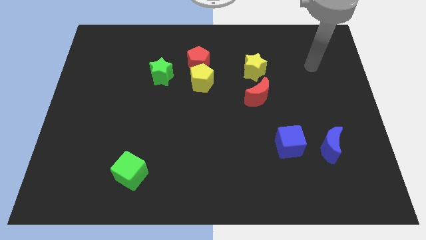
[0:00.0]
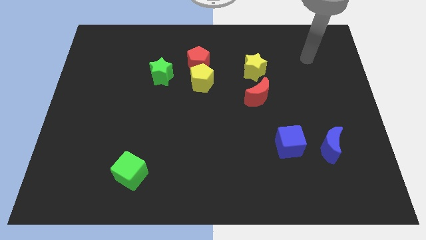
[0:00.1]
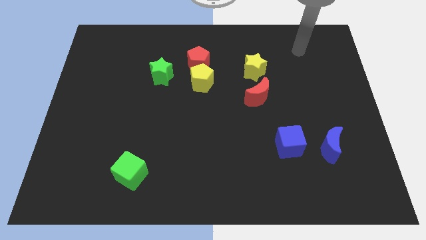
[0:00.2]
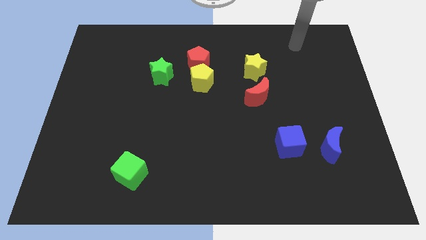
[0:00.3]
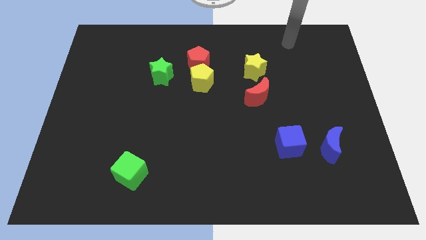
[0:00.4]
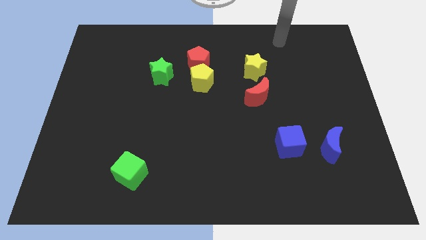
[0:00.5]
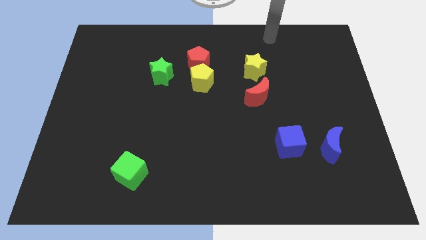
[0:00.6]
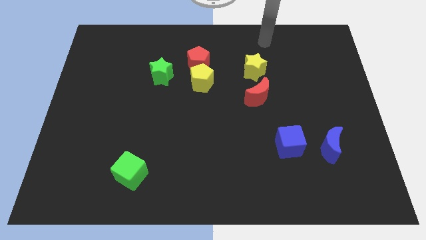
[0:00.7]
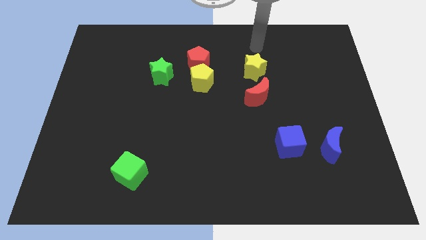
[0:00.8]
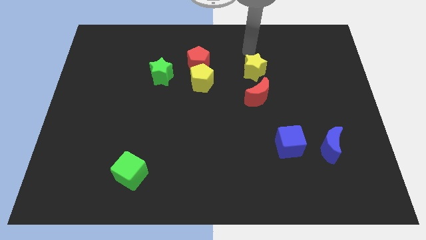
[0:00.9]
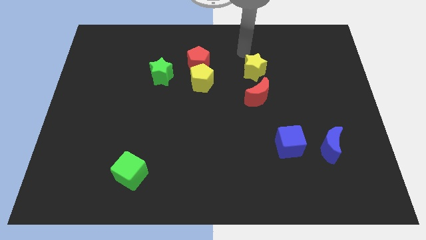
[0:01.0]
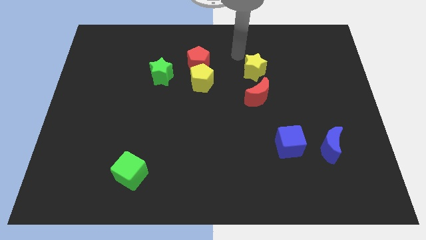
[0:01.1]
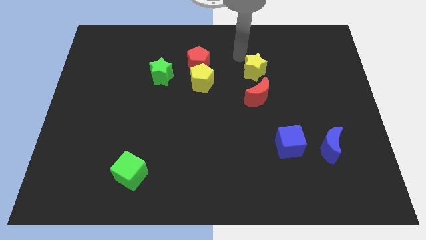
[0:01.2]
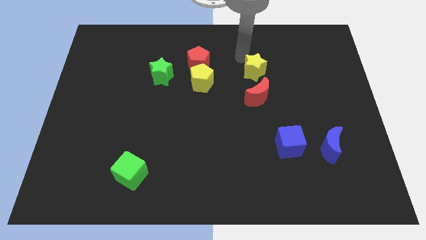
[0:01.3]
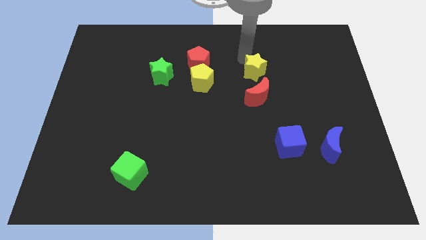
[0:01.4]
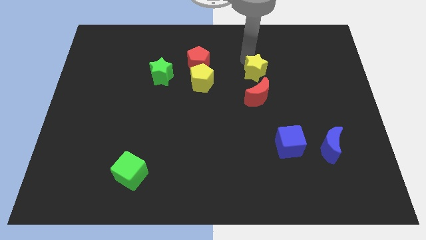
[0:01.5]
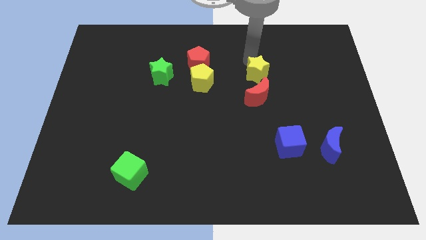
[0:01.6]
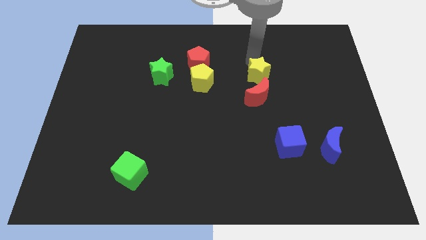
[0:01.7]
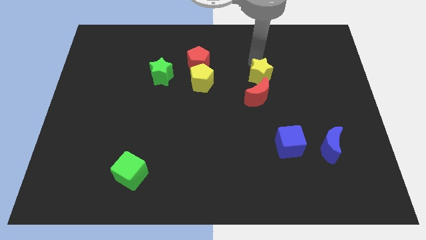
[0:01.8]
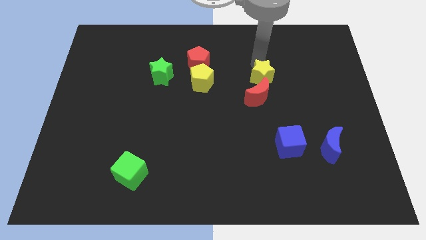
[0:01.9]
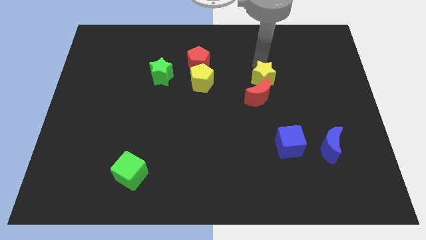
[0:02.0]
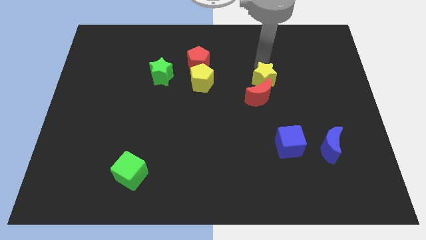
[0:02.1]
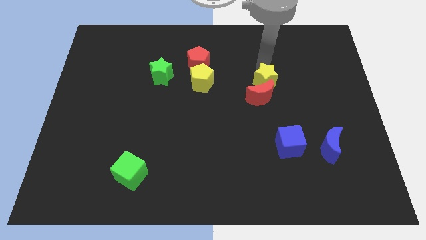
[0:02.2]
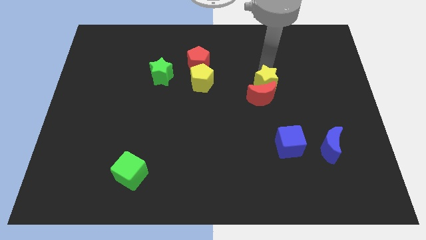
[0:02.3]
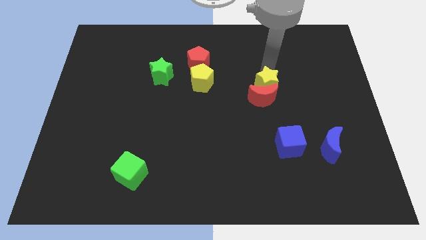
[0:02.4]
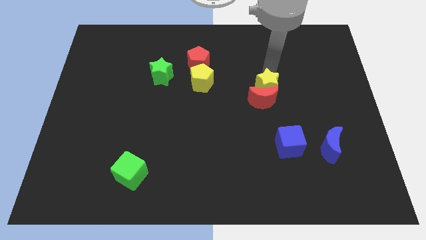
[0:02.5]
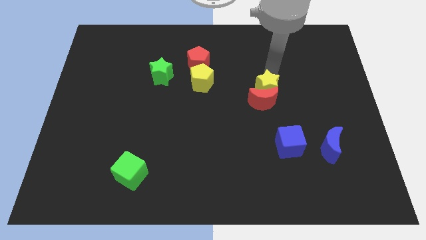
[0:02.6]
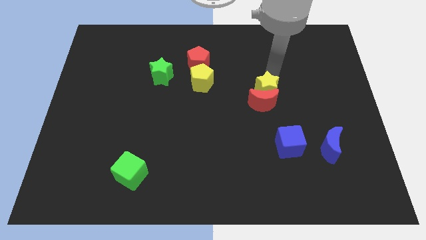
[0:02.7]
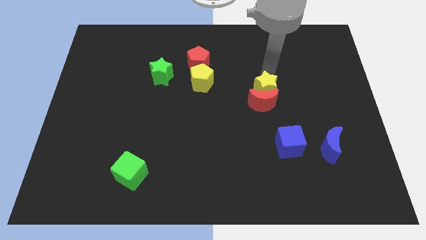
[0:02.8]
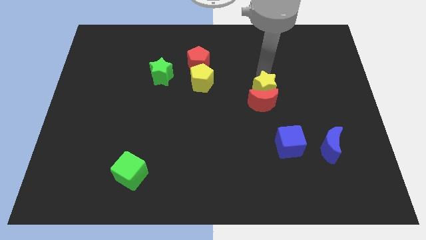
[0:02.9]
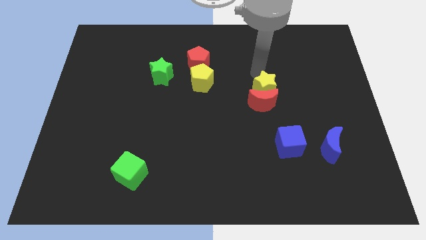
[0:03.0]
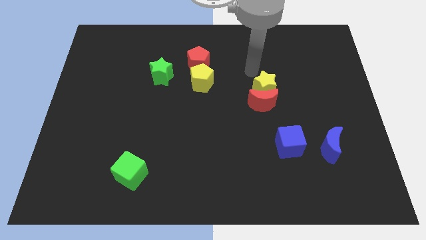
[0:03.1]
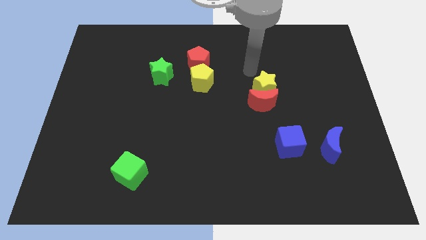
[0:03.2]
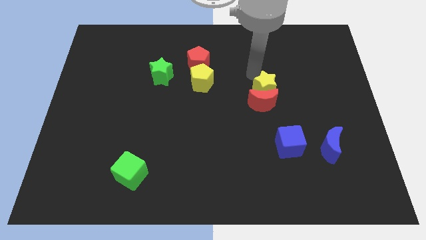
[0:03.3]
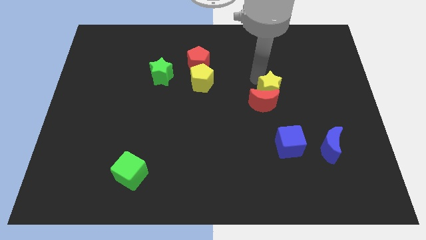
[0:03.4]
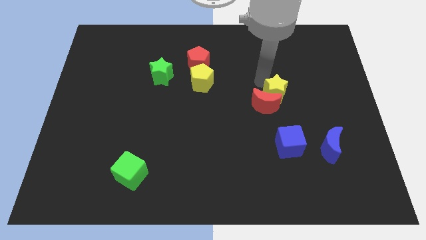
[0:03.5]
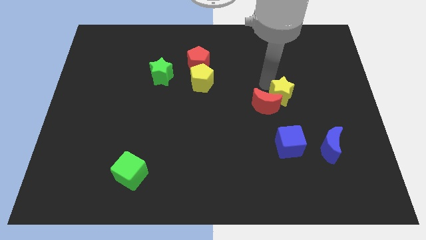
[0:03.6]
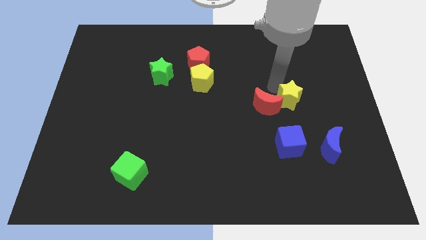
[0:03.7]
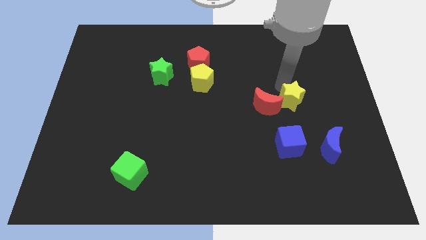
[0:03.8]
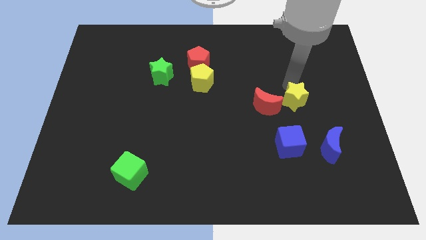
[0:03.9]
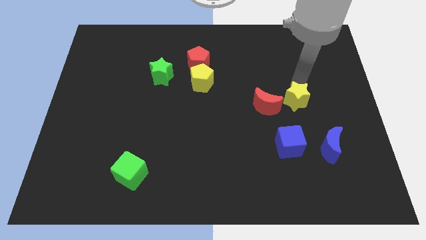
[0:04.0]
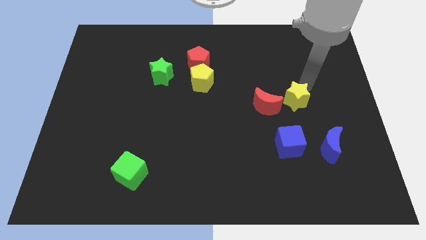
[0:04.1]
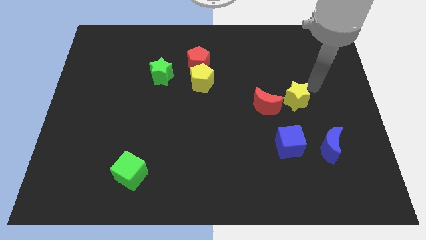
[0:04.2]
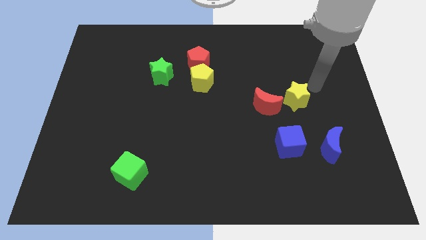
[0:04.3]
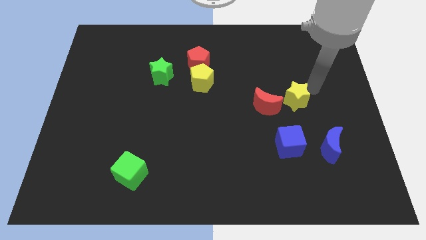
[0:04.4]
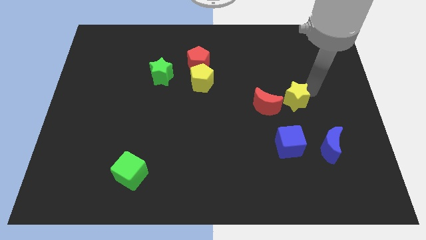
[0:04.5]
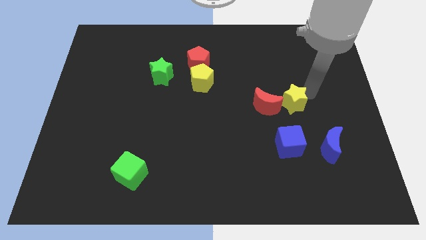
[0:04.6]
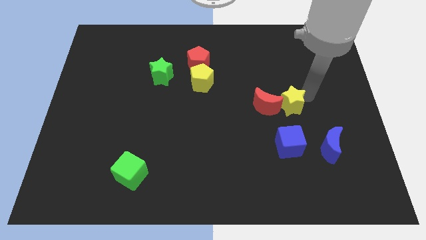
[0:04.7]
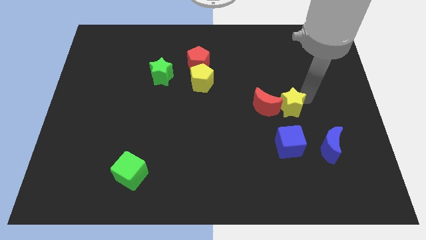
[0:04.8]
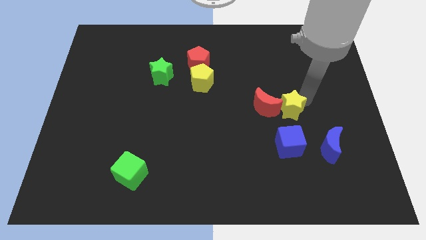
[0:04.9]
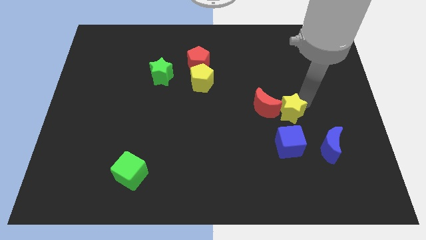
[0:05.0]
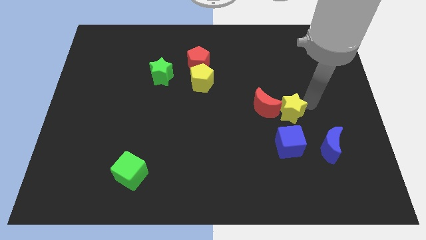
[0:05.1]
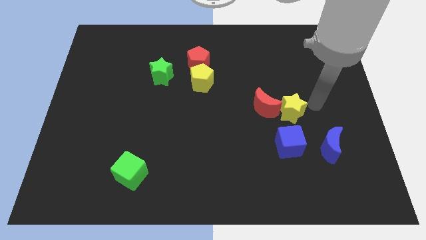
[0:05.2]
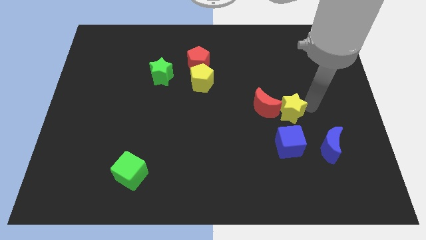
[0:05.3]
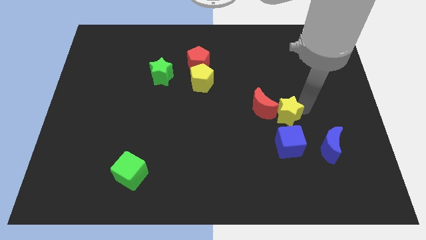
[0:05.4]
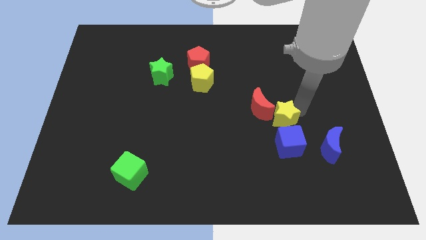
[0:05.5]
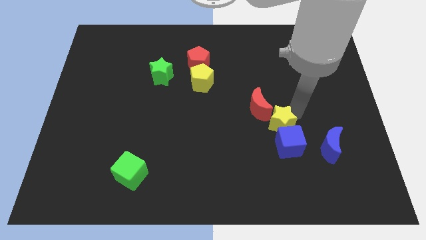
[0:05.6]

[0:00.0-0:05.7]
push the yellow star next to the blue cube

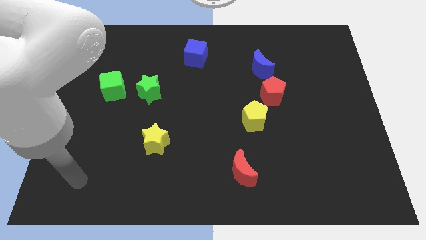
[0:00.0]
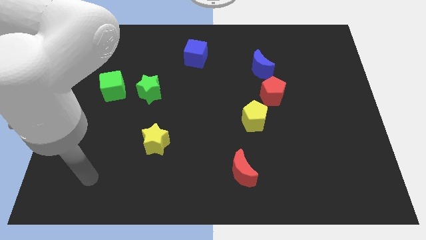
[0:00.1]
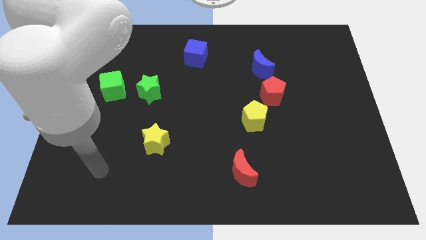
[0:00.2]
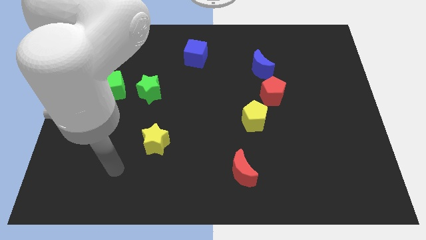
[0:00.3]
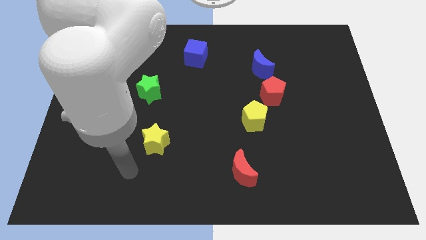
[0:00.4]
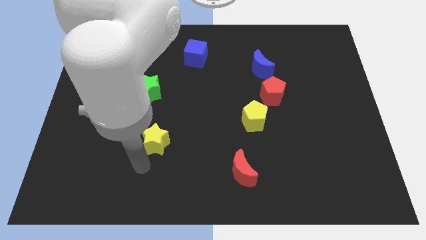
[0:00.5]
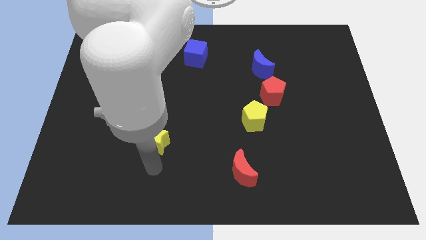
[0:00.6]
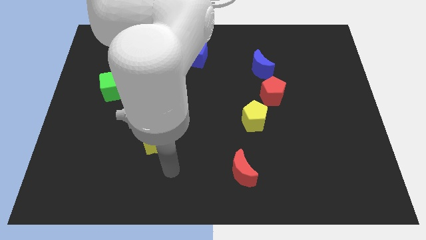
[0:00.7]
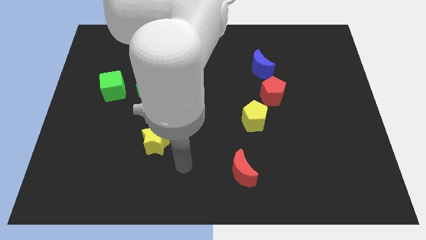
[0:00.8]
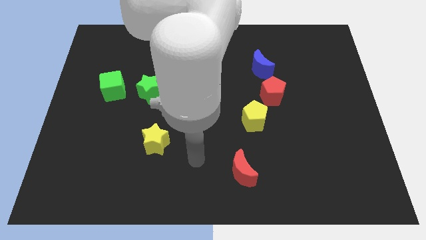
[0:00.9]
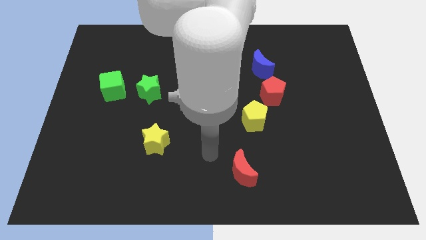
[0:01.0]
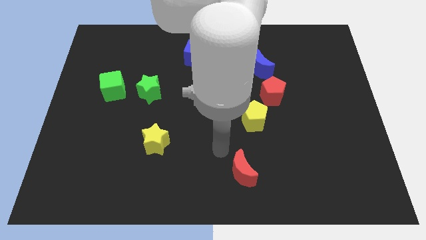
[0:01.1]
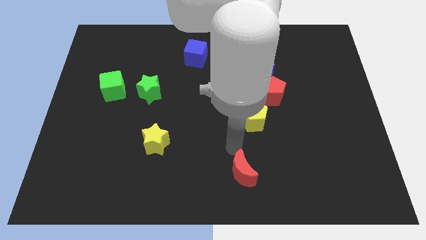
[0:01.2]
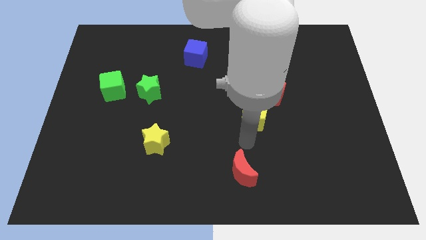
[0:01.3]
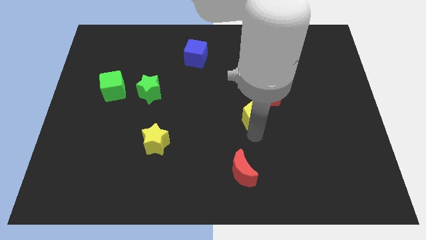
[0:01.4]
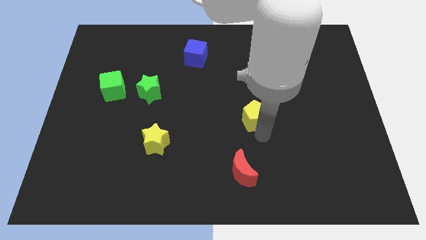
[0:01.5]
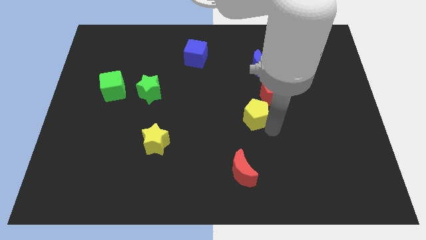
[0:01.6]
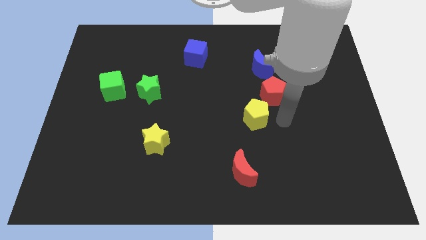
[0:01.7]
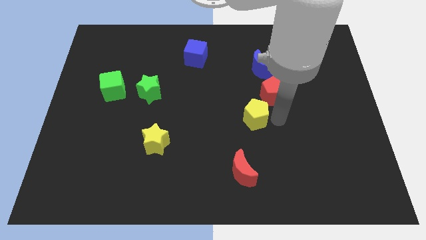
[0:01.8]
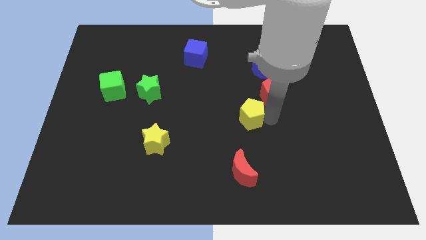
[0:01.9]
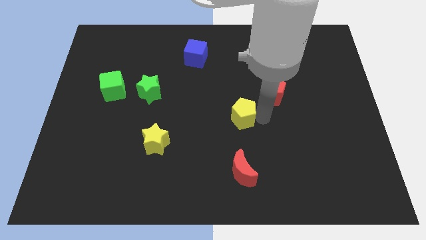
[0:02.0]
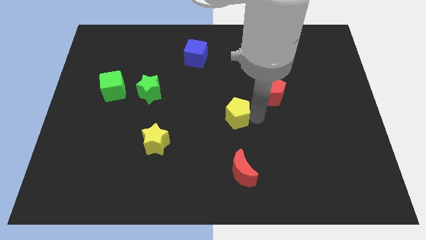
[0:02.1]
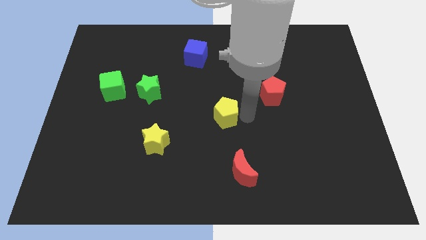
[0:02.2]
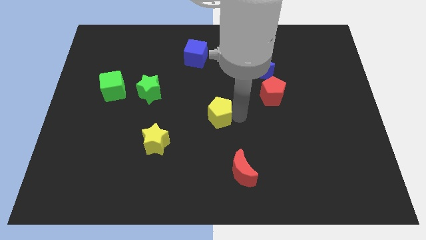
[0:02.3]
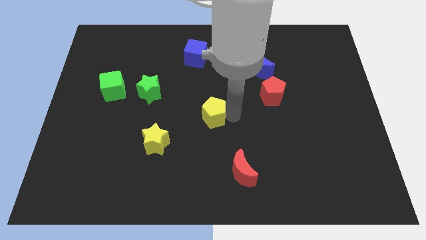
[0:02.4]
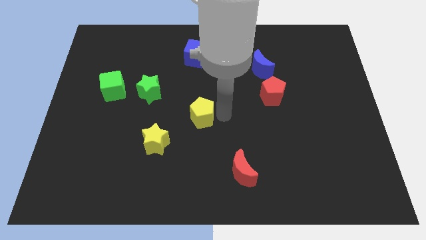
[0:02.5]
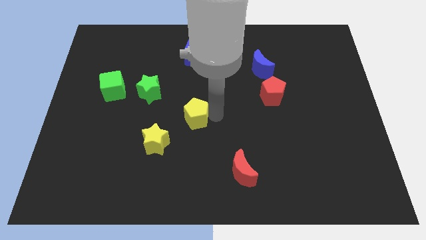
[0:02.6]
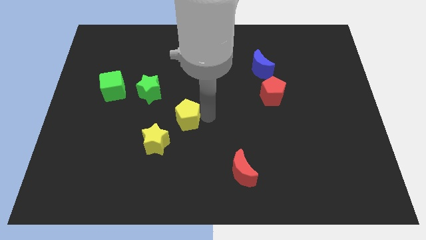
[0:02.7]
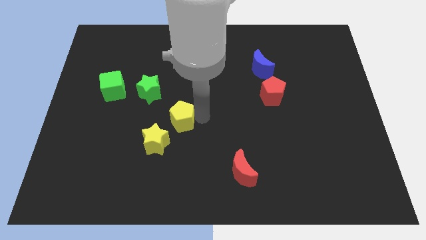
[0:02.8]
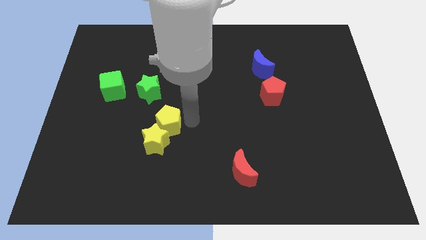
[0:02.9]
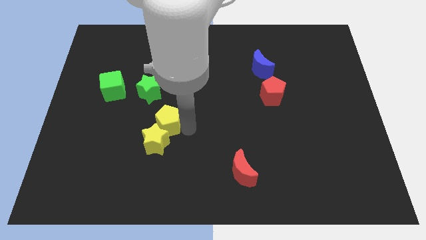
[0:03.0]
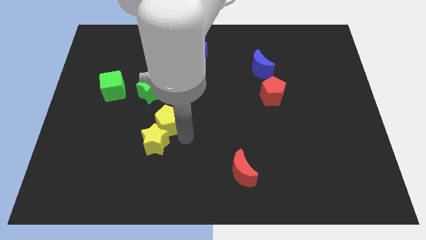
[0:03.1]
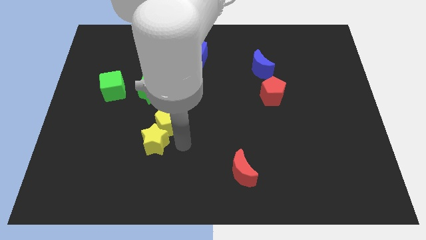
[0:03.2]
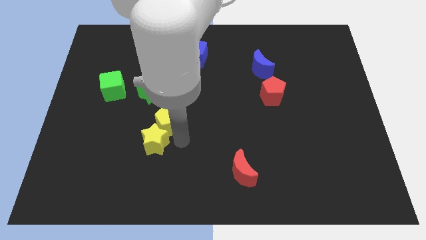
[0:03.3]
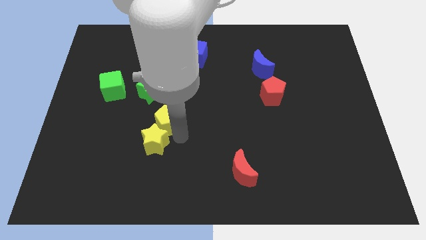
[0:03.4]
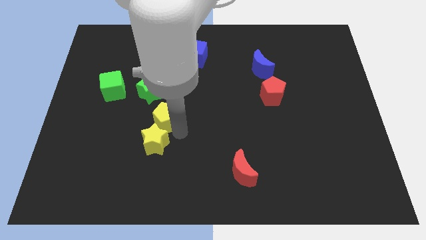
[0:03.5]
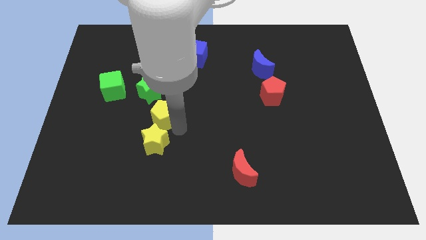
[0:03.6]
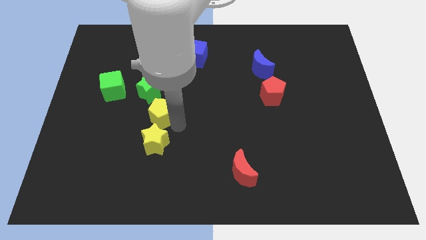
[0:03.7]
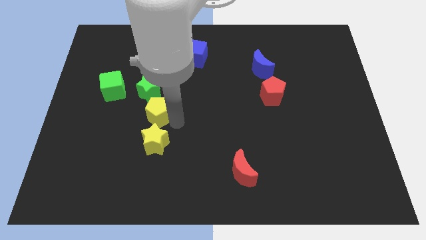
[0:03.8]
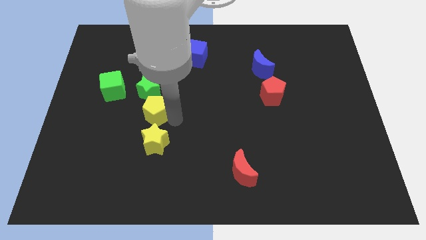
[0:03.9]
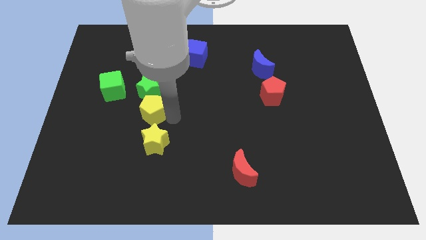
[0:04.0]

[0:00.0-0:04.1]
put the yellow pentagon to the green star
